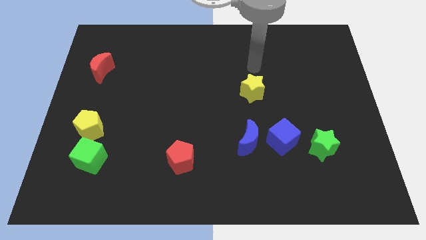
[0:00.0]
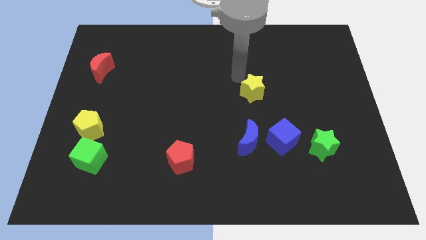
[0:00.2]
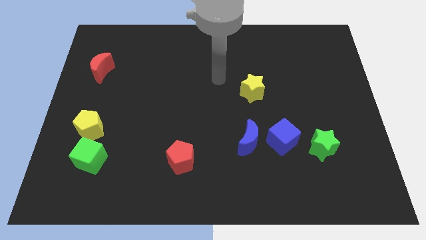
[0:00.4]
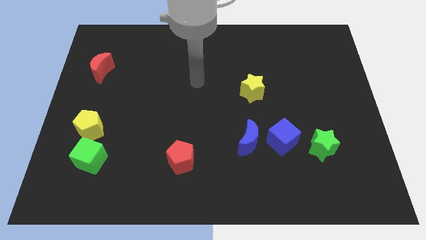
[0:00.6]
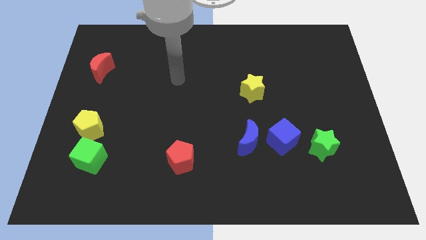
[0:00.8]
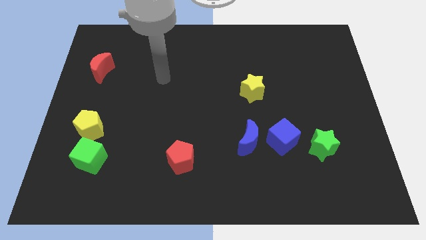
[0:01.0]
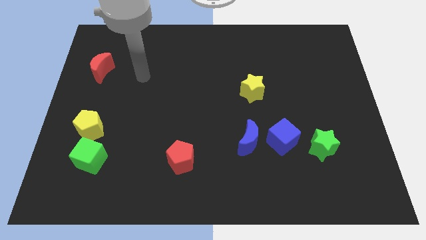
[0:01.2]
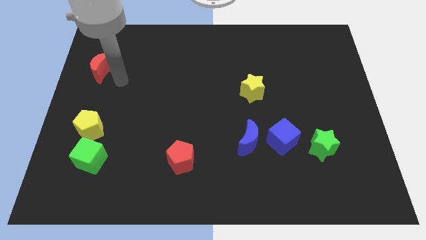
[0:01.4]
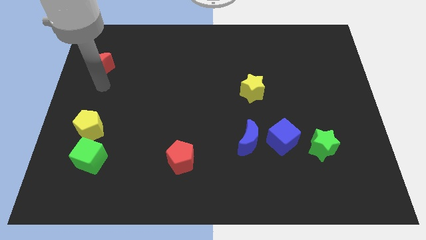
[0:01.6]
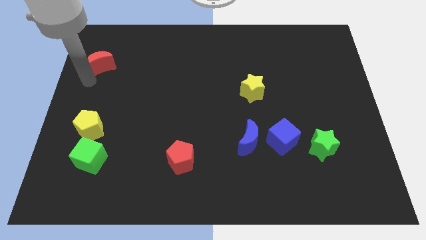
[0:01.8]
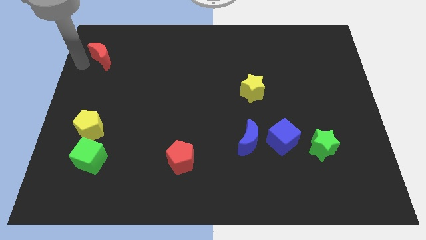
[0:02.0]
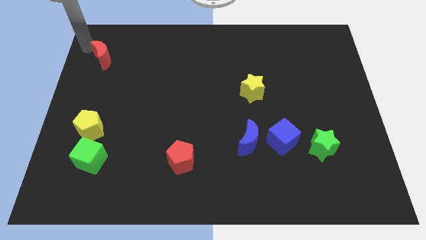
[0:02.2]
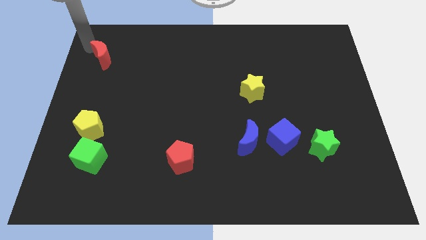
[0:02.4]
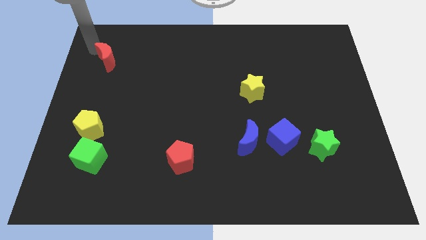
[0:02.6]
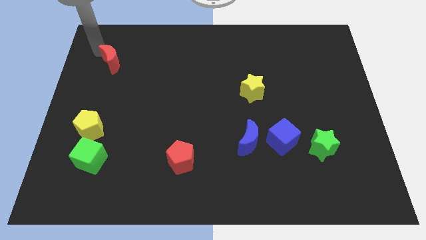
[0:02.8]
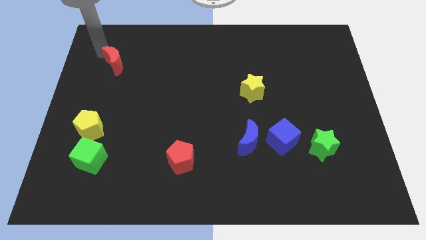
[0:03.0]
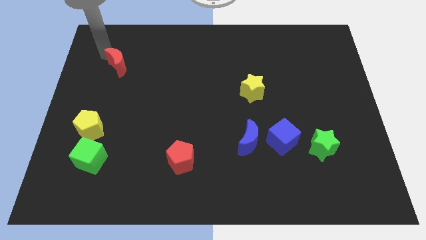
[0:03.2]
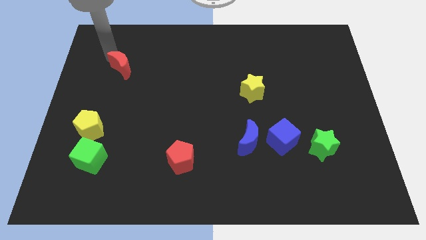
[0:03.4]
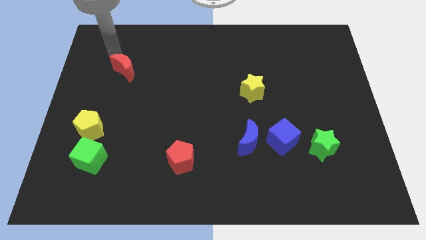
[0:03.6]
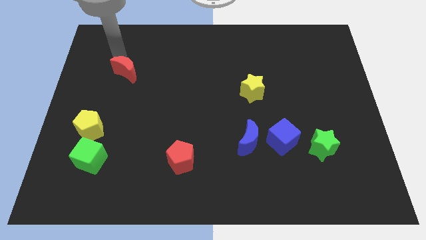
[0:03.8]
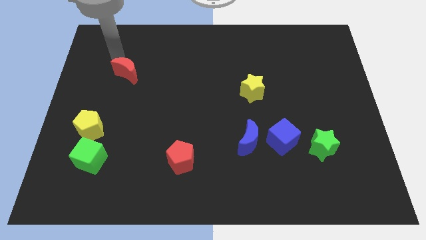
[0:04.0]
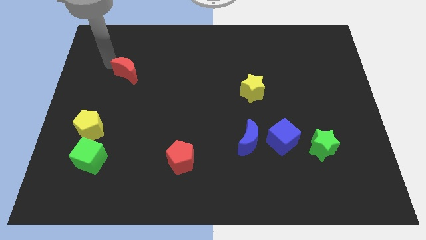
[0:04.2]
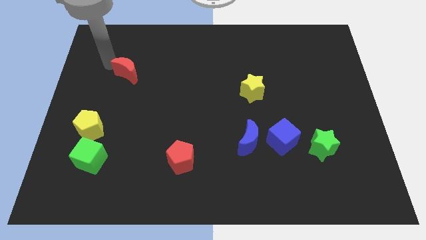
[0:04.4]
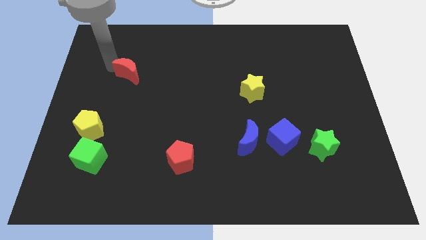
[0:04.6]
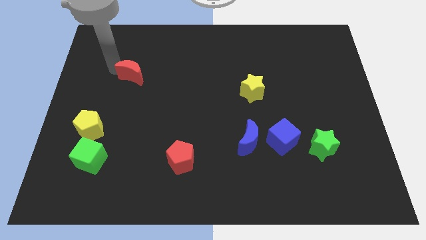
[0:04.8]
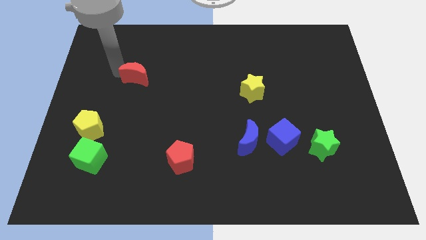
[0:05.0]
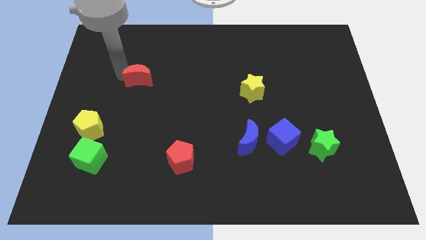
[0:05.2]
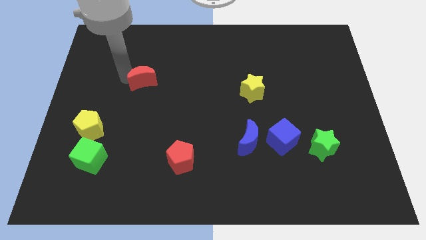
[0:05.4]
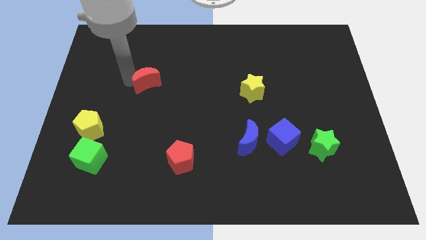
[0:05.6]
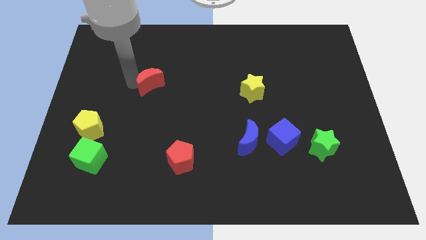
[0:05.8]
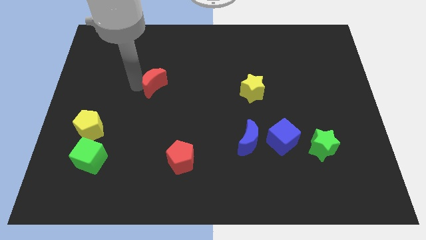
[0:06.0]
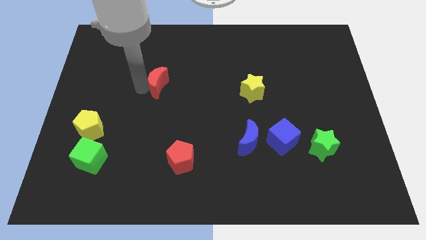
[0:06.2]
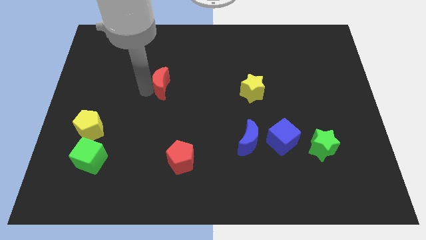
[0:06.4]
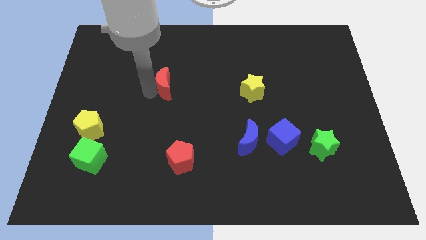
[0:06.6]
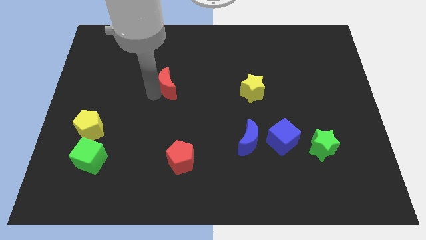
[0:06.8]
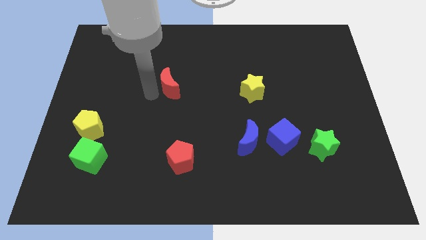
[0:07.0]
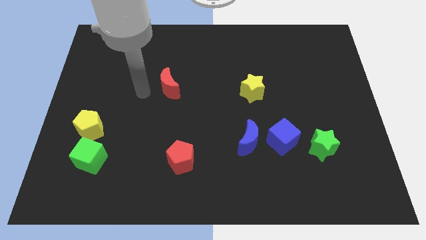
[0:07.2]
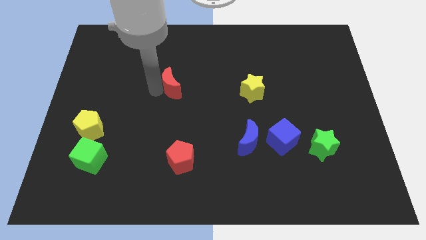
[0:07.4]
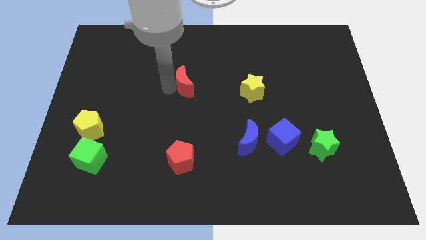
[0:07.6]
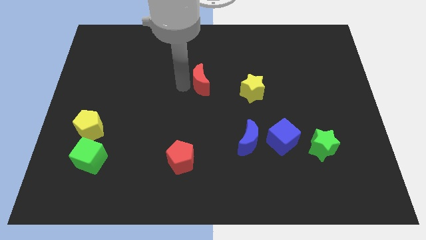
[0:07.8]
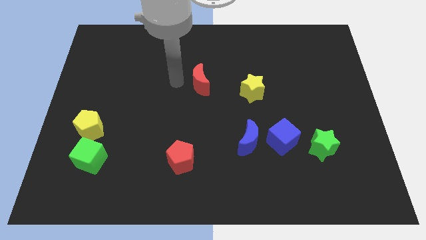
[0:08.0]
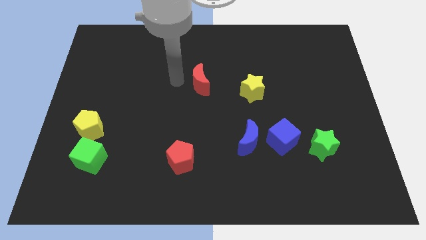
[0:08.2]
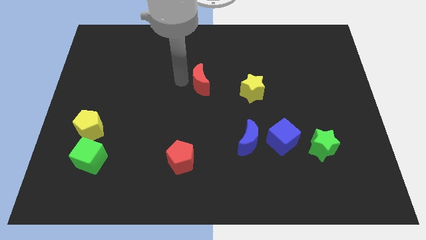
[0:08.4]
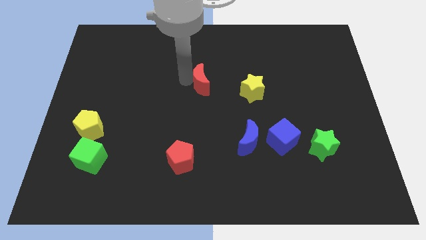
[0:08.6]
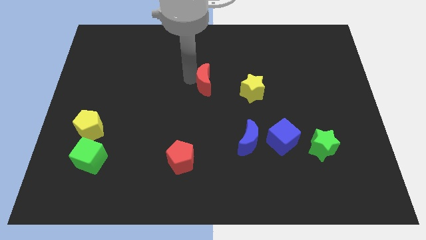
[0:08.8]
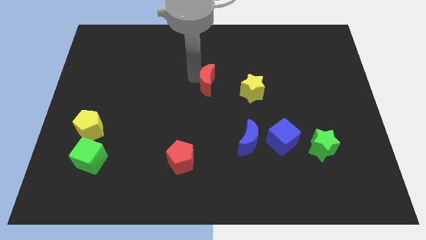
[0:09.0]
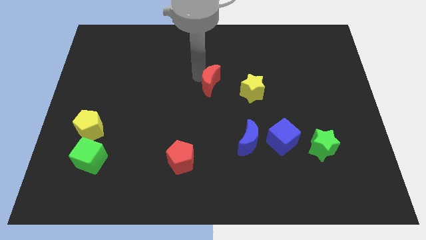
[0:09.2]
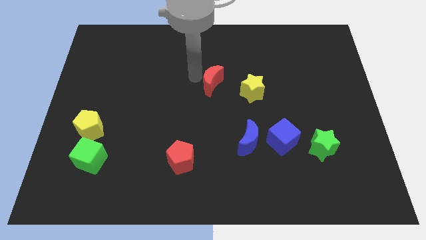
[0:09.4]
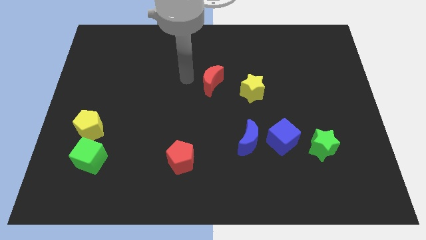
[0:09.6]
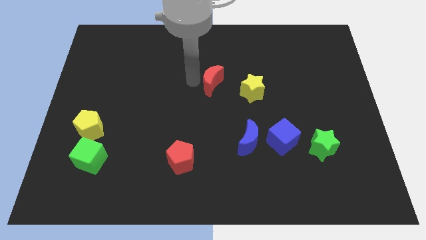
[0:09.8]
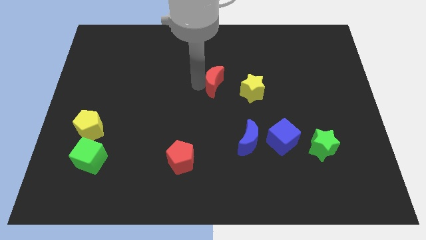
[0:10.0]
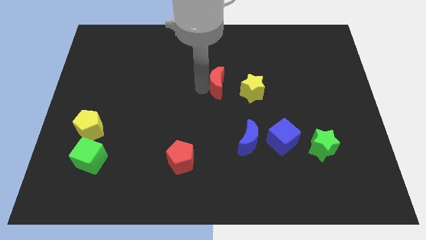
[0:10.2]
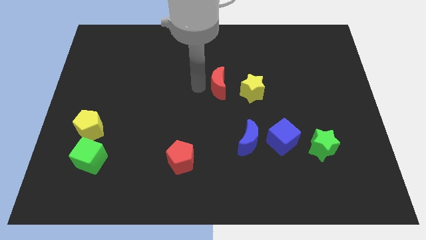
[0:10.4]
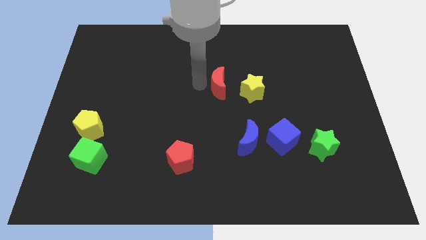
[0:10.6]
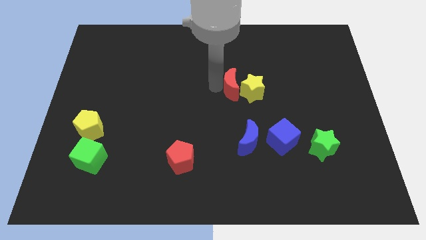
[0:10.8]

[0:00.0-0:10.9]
push the red moon close to the yellow star

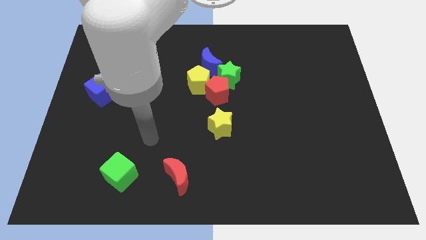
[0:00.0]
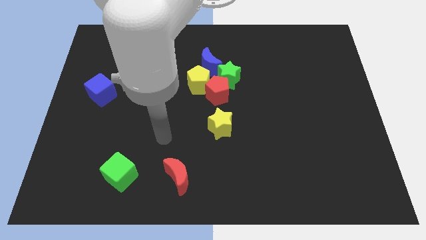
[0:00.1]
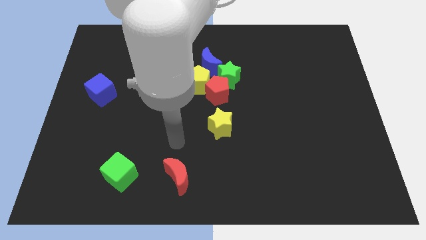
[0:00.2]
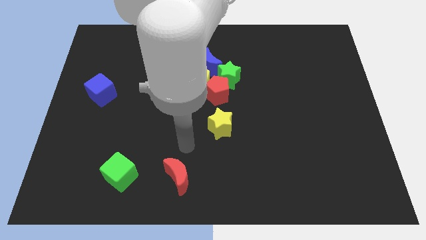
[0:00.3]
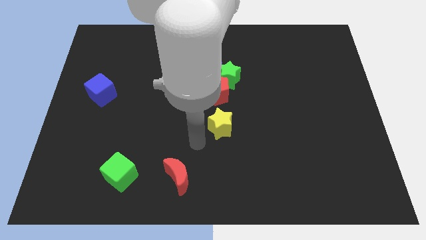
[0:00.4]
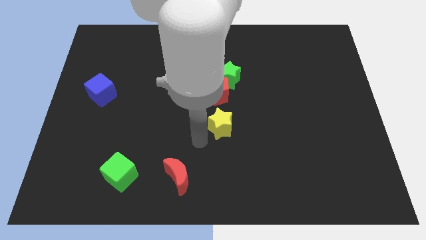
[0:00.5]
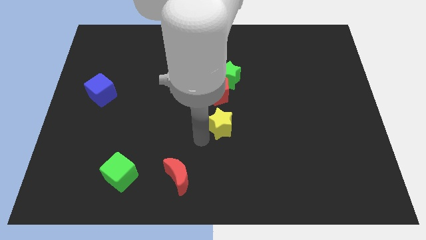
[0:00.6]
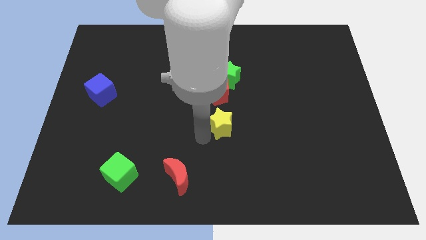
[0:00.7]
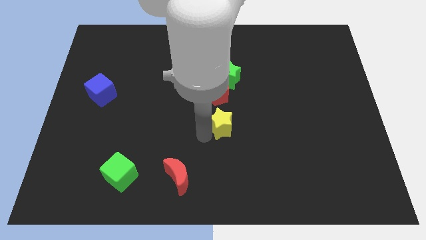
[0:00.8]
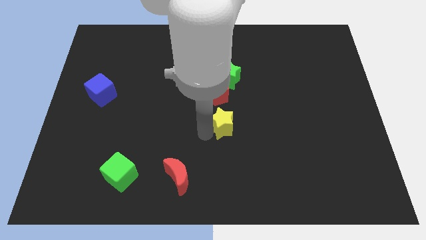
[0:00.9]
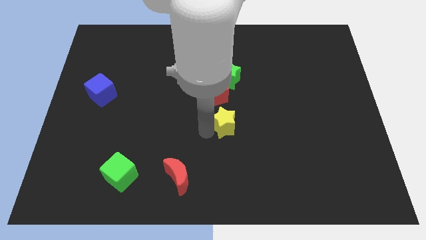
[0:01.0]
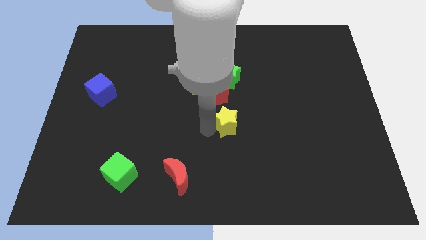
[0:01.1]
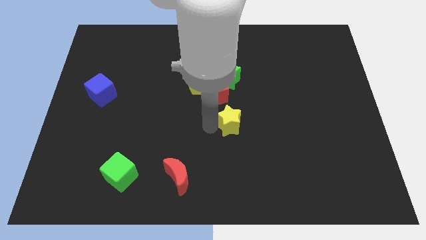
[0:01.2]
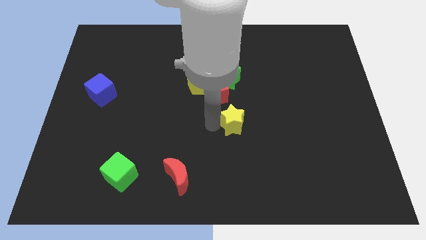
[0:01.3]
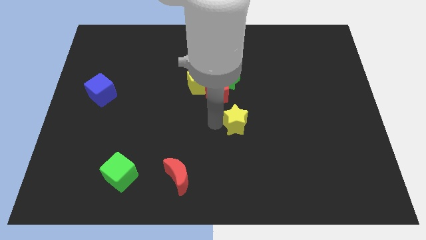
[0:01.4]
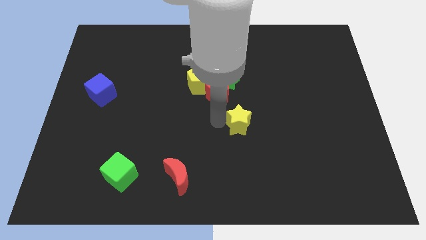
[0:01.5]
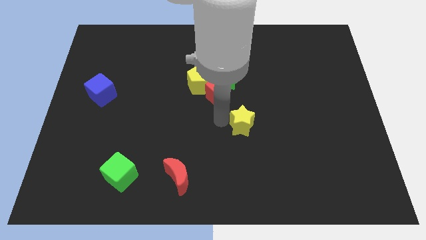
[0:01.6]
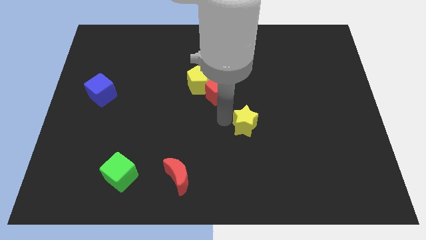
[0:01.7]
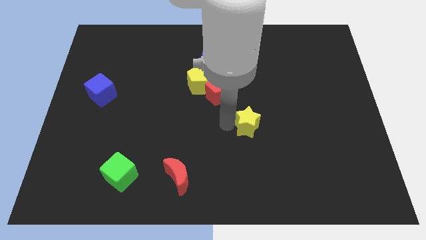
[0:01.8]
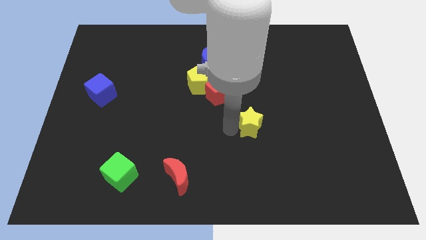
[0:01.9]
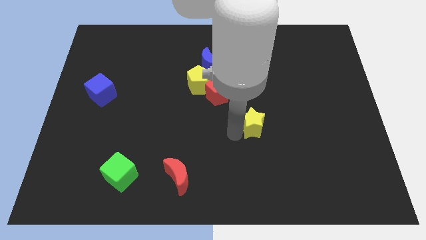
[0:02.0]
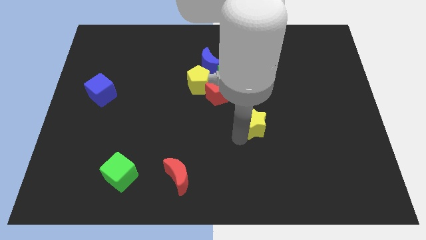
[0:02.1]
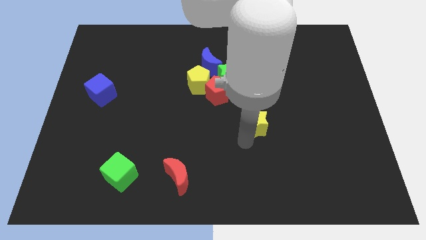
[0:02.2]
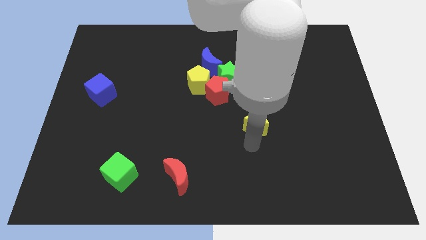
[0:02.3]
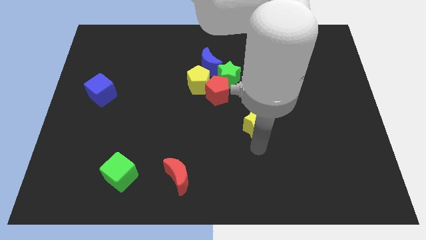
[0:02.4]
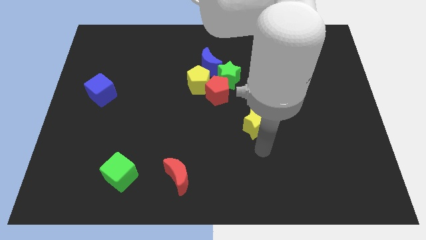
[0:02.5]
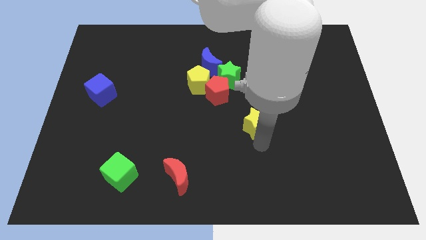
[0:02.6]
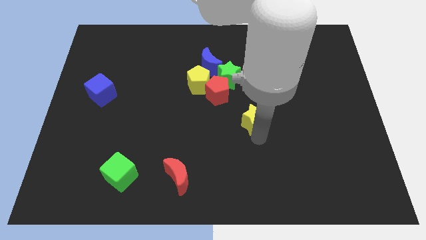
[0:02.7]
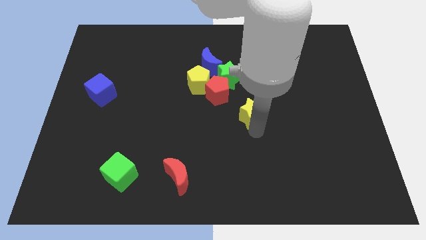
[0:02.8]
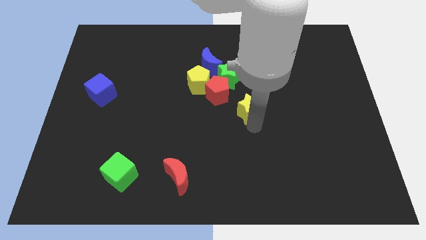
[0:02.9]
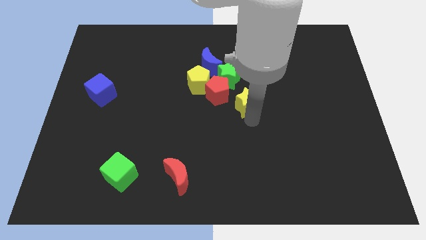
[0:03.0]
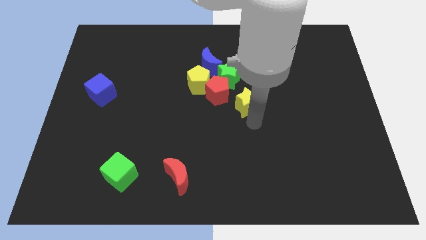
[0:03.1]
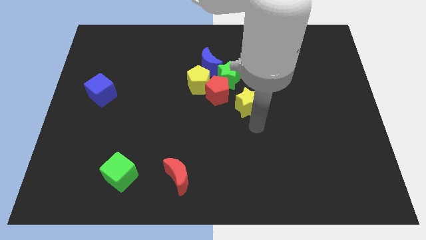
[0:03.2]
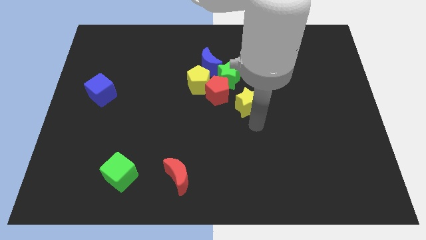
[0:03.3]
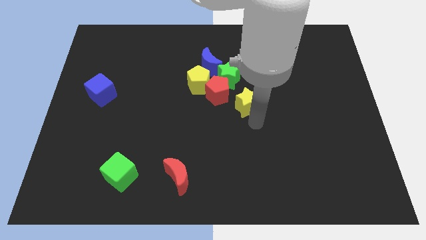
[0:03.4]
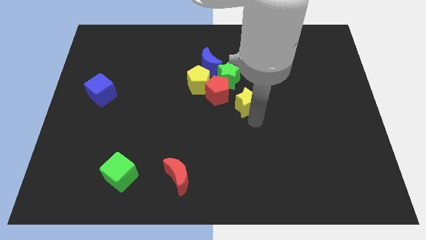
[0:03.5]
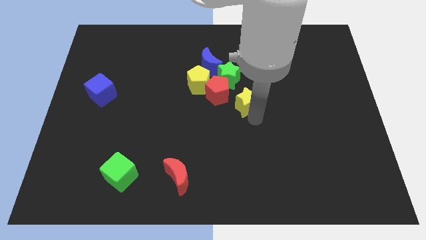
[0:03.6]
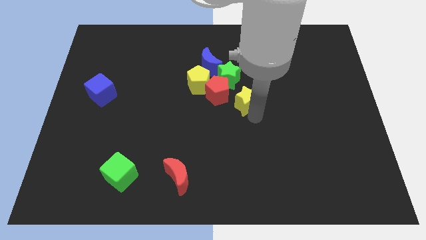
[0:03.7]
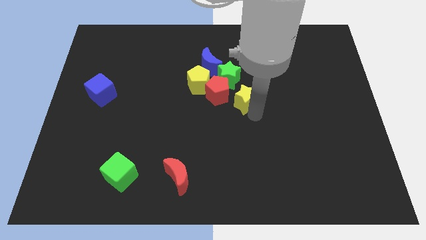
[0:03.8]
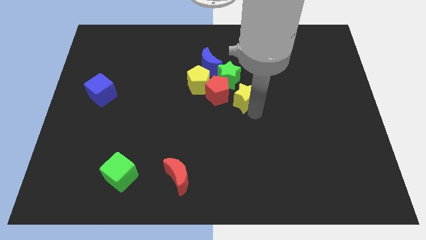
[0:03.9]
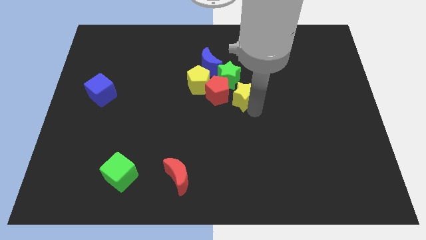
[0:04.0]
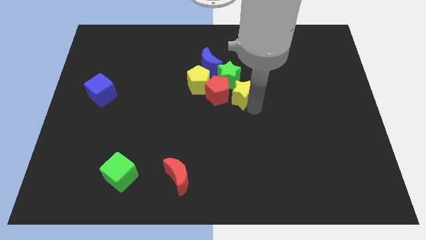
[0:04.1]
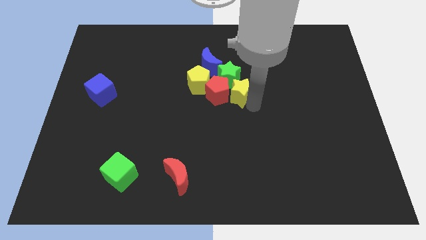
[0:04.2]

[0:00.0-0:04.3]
put the yellow star to the green star
